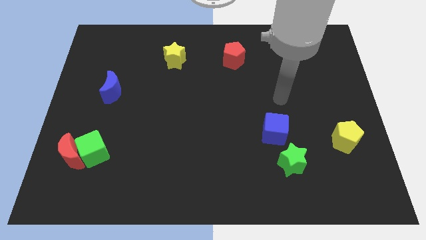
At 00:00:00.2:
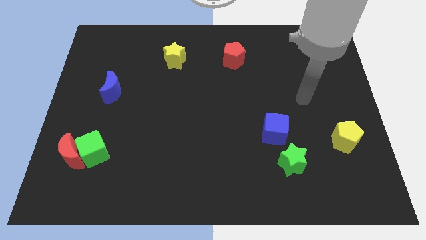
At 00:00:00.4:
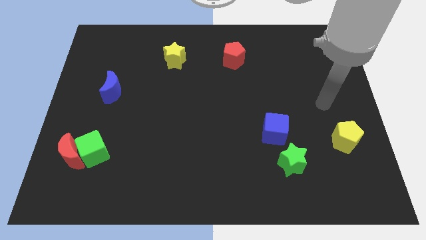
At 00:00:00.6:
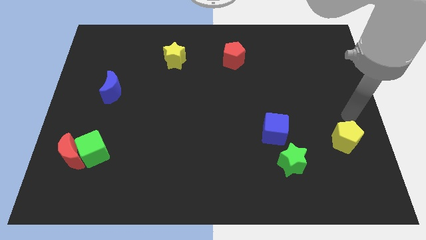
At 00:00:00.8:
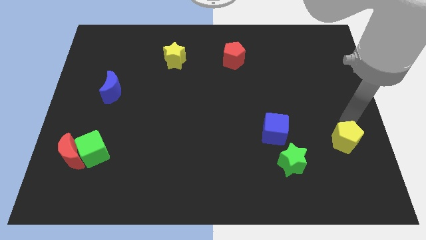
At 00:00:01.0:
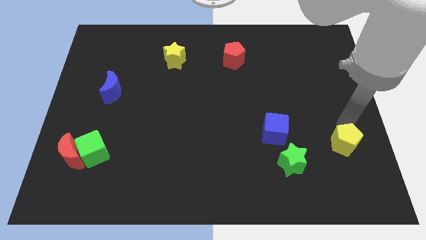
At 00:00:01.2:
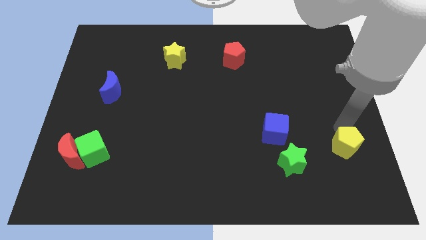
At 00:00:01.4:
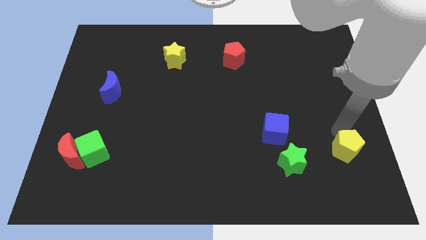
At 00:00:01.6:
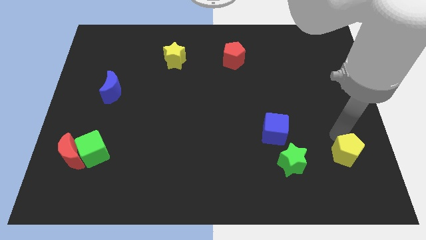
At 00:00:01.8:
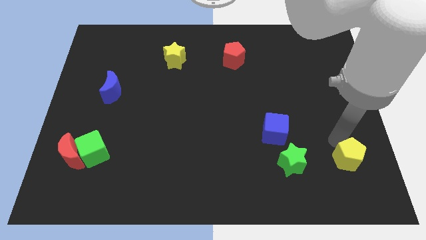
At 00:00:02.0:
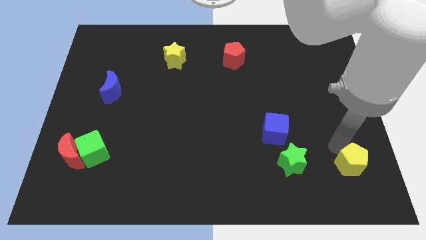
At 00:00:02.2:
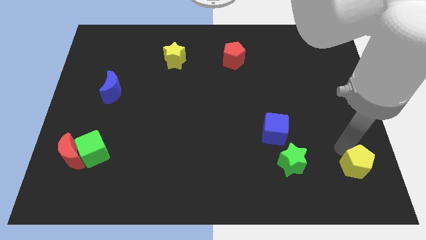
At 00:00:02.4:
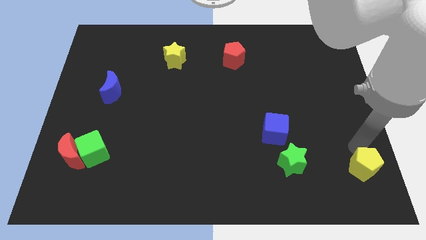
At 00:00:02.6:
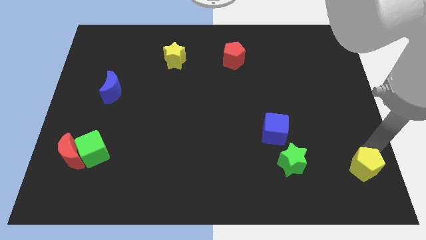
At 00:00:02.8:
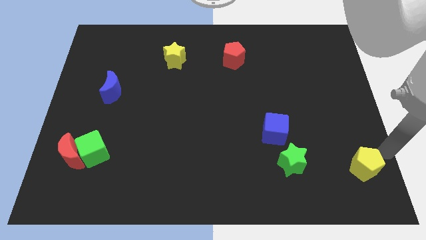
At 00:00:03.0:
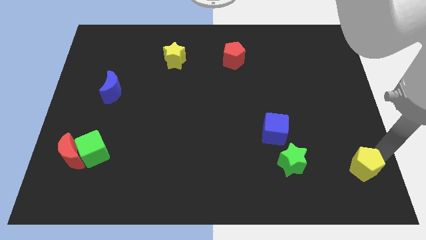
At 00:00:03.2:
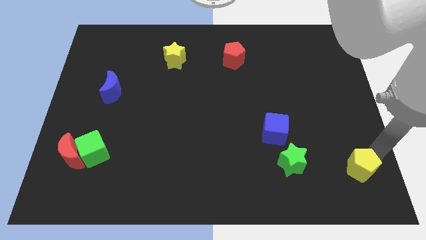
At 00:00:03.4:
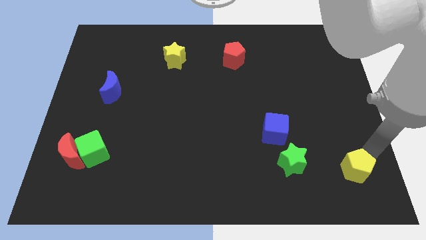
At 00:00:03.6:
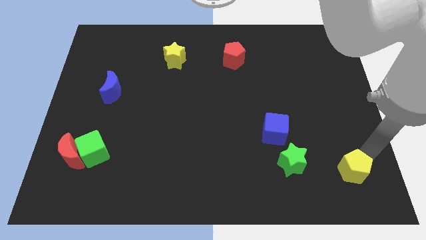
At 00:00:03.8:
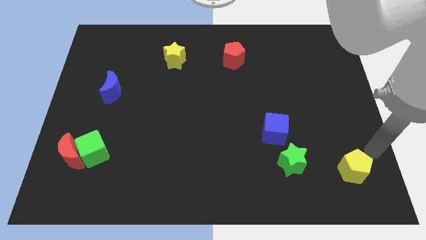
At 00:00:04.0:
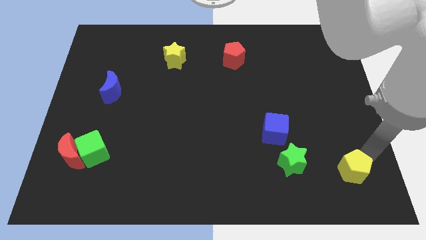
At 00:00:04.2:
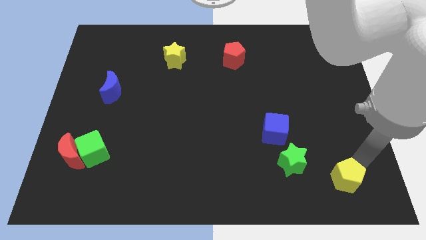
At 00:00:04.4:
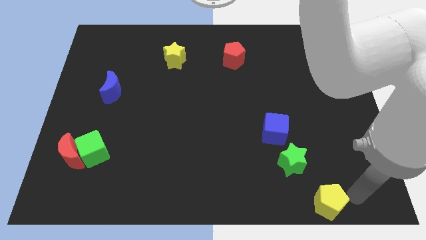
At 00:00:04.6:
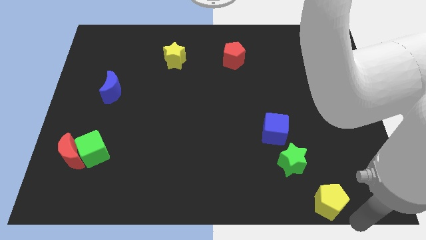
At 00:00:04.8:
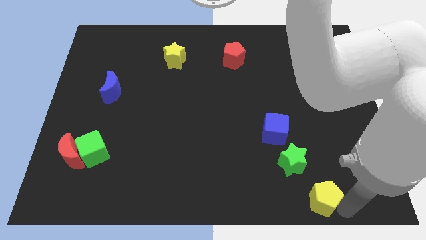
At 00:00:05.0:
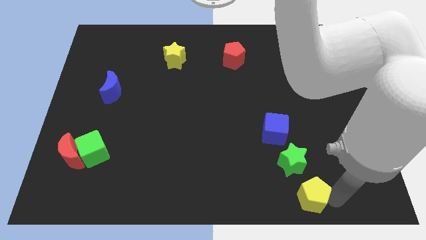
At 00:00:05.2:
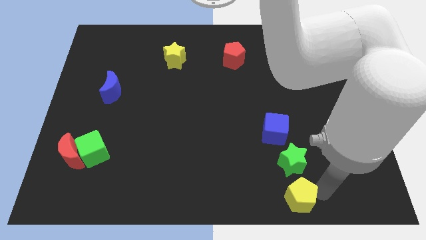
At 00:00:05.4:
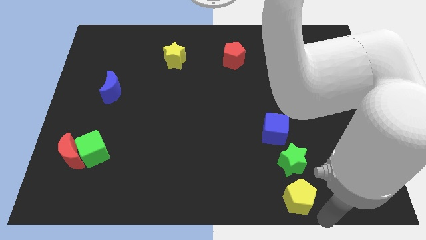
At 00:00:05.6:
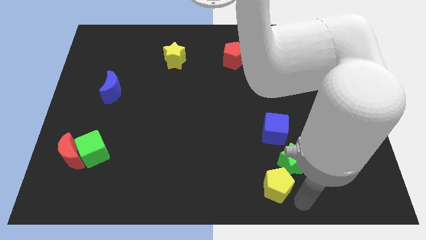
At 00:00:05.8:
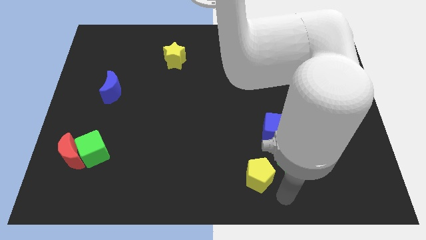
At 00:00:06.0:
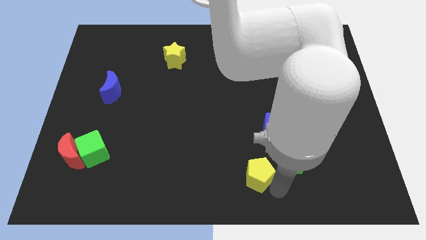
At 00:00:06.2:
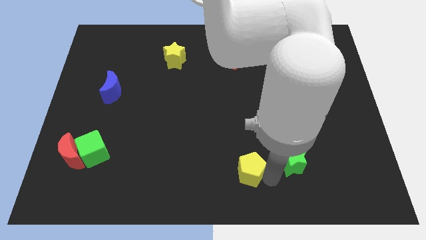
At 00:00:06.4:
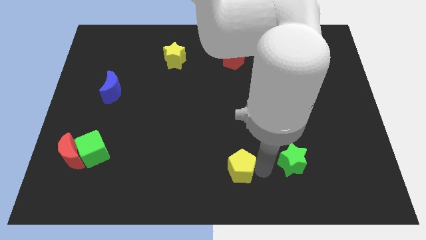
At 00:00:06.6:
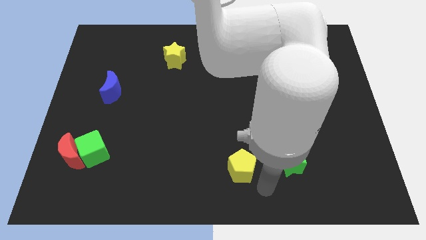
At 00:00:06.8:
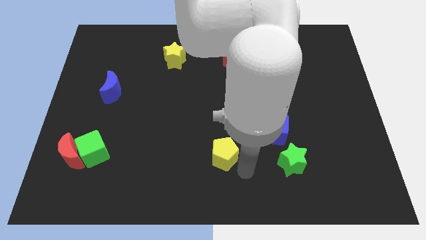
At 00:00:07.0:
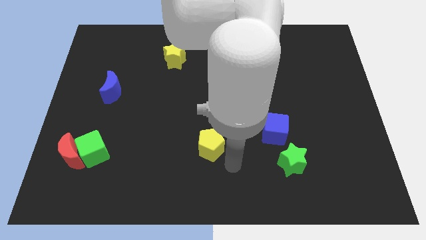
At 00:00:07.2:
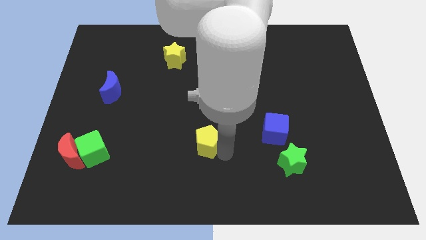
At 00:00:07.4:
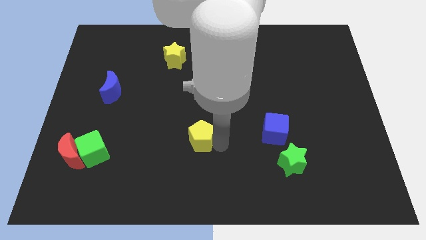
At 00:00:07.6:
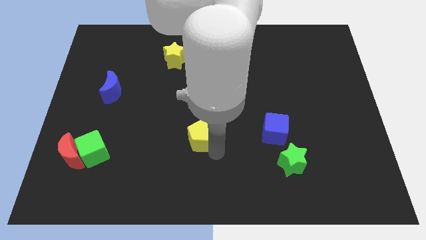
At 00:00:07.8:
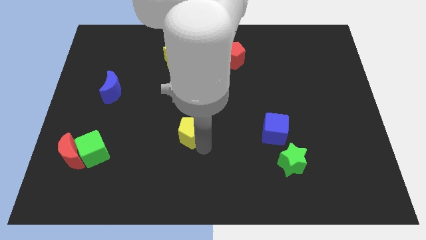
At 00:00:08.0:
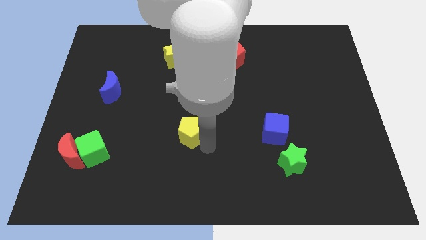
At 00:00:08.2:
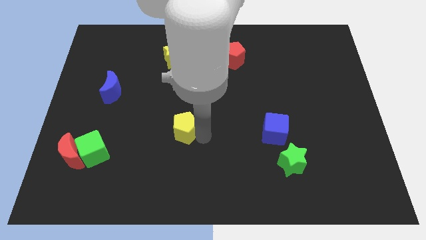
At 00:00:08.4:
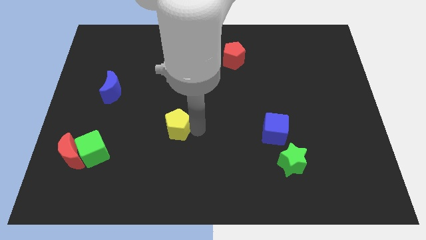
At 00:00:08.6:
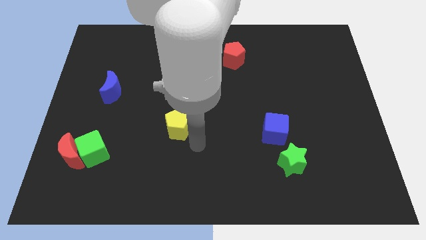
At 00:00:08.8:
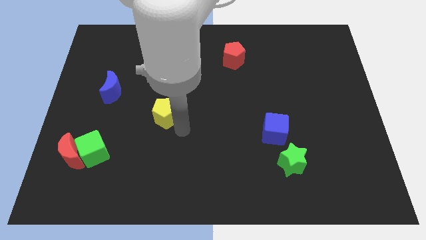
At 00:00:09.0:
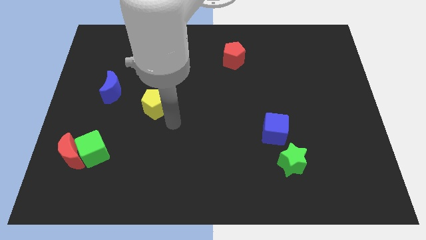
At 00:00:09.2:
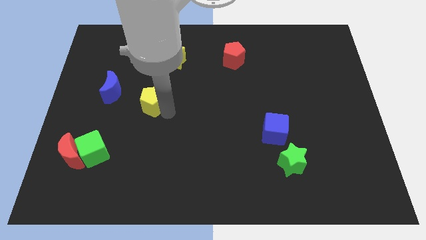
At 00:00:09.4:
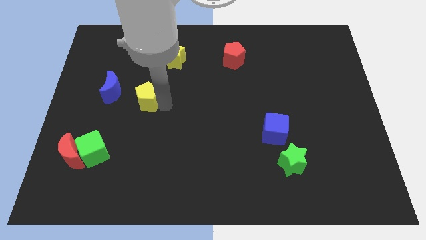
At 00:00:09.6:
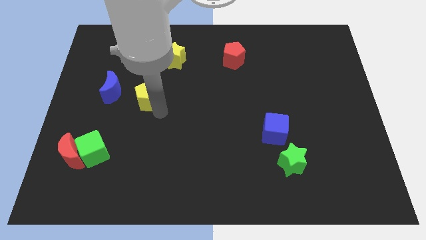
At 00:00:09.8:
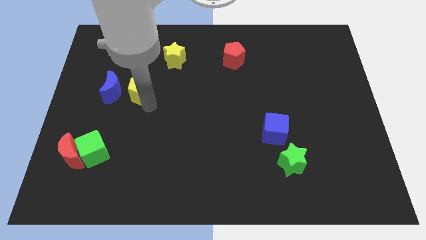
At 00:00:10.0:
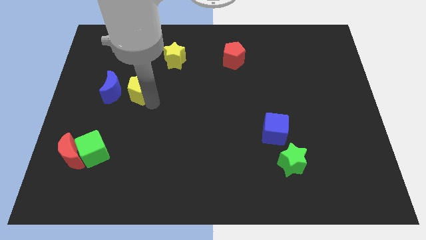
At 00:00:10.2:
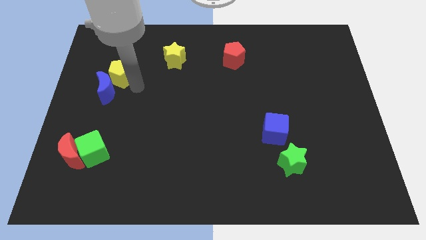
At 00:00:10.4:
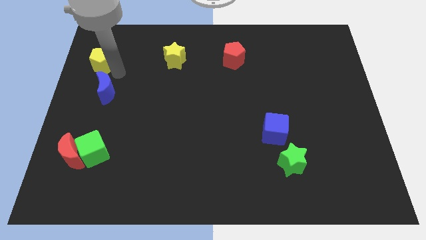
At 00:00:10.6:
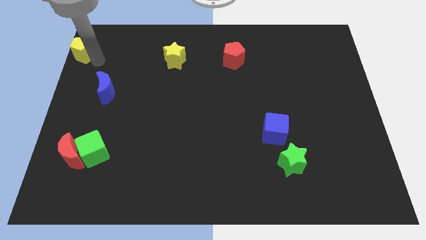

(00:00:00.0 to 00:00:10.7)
slide the yellow pentagon to the top left corner

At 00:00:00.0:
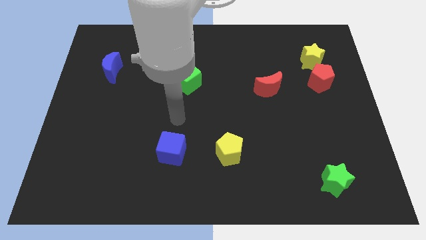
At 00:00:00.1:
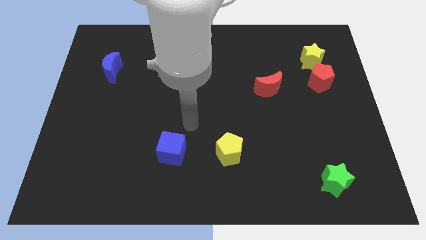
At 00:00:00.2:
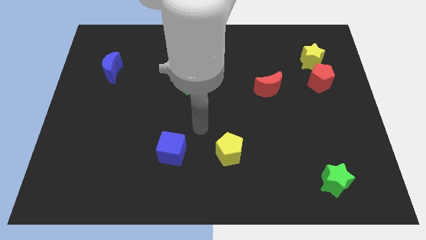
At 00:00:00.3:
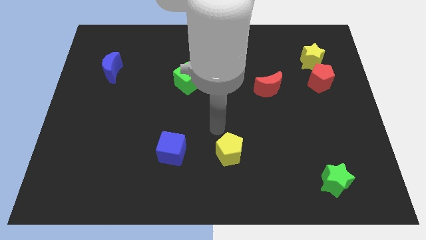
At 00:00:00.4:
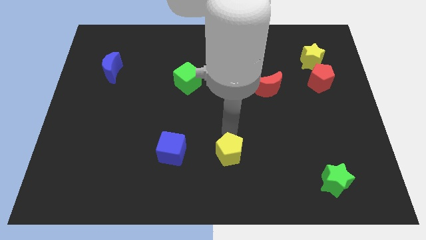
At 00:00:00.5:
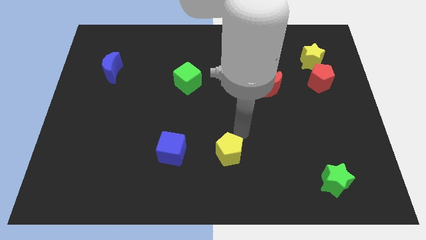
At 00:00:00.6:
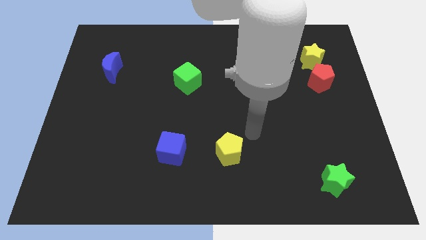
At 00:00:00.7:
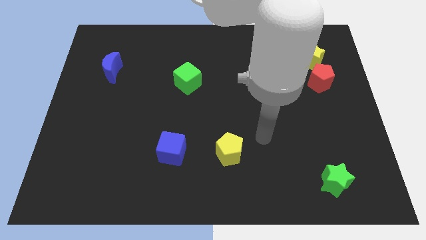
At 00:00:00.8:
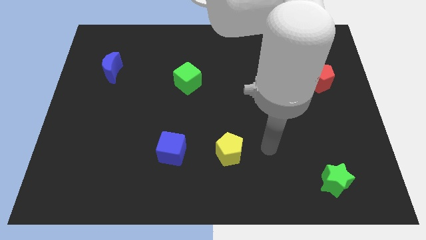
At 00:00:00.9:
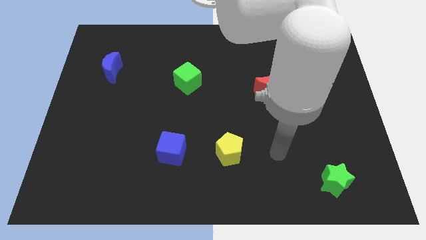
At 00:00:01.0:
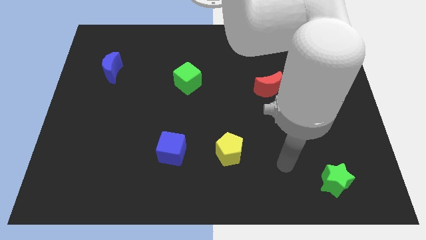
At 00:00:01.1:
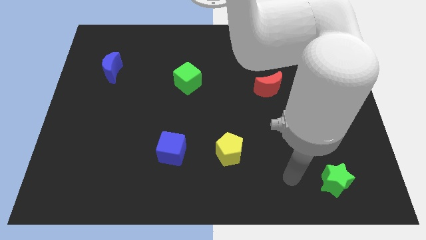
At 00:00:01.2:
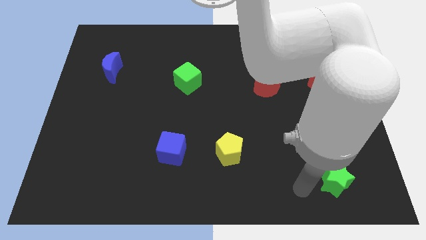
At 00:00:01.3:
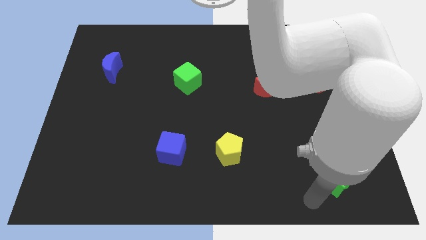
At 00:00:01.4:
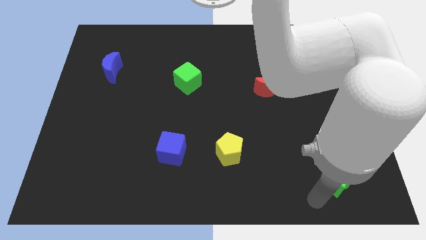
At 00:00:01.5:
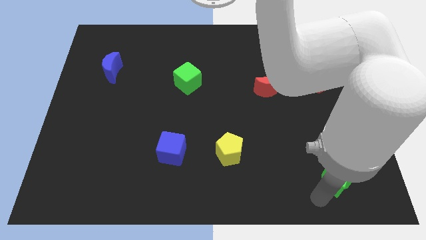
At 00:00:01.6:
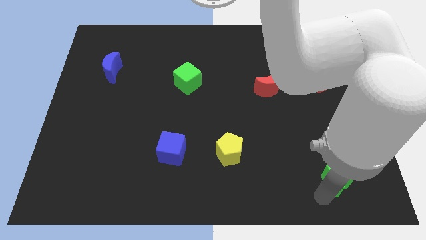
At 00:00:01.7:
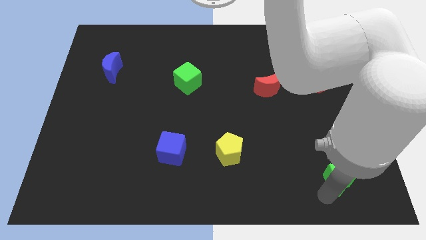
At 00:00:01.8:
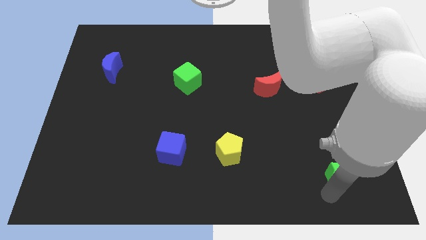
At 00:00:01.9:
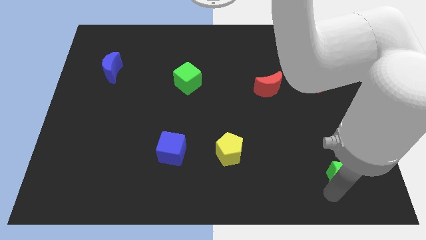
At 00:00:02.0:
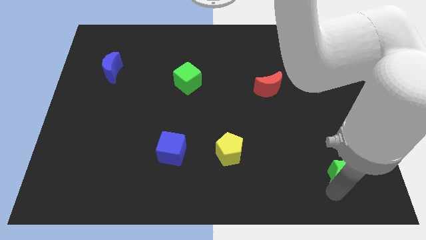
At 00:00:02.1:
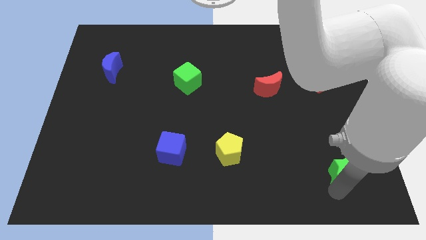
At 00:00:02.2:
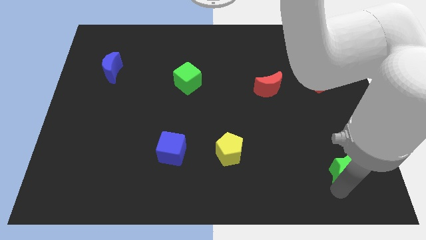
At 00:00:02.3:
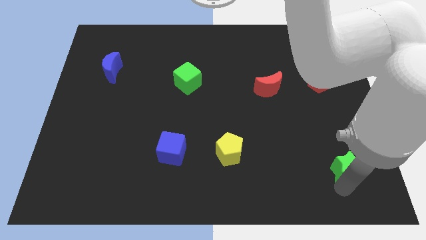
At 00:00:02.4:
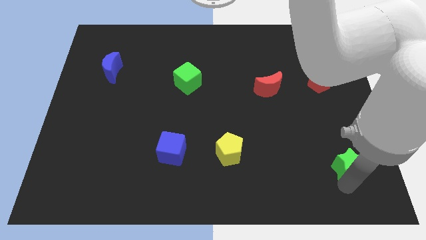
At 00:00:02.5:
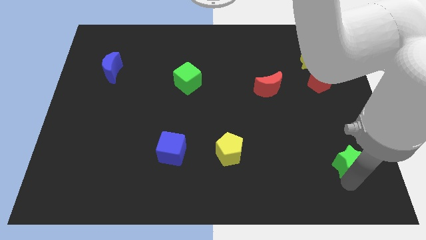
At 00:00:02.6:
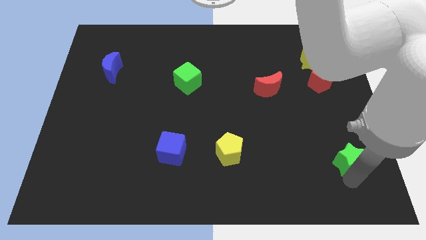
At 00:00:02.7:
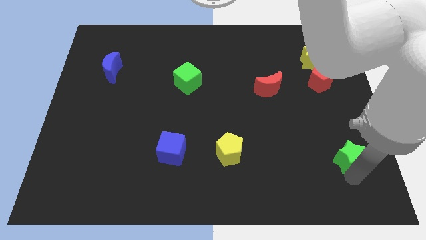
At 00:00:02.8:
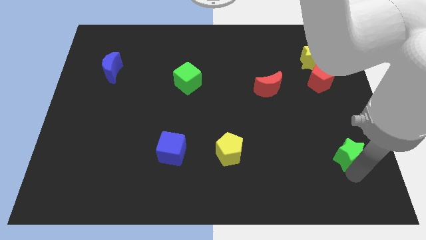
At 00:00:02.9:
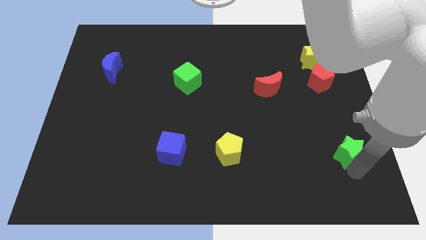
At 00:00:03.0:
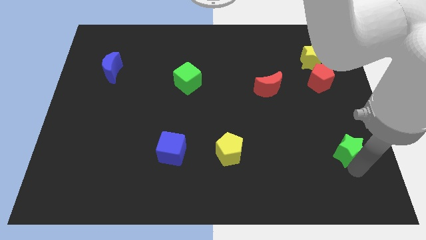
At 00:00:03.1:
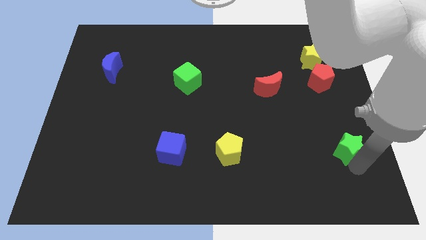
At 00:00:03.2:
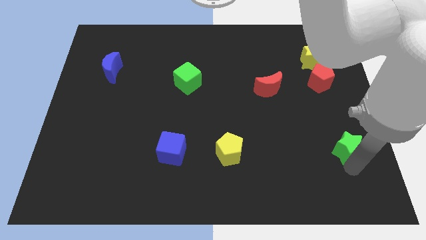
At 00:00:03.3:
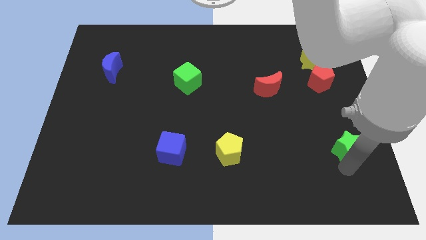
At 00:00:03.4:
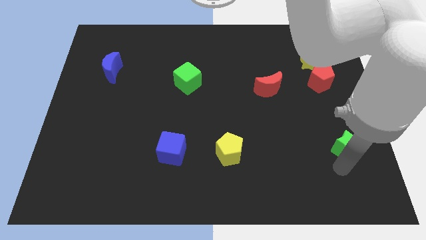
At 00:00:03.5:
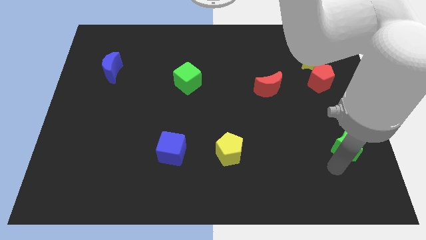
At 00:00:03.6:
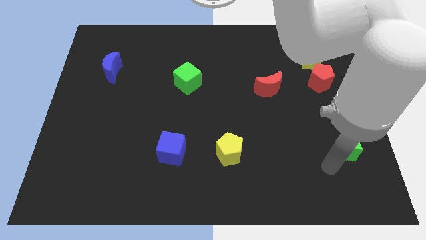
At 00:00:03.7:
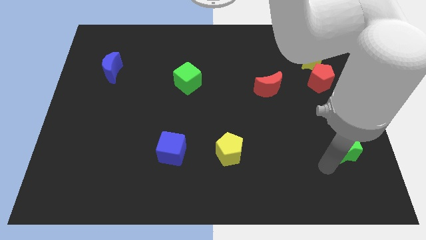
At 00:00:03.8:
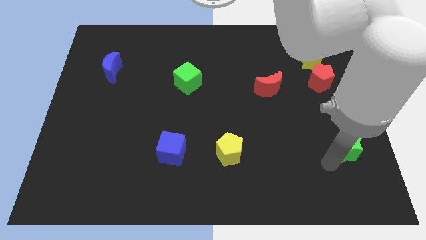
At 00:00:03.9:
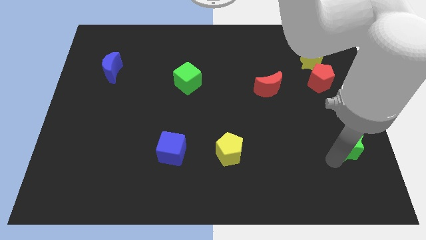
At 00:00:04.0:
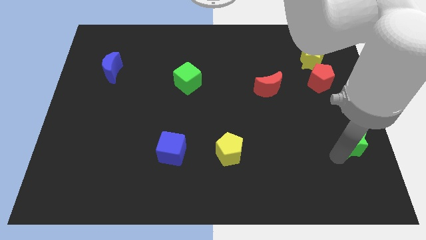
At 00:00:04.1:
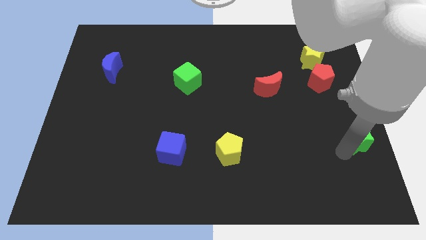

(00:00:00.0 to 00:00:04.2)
put the green star to the center right
